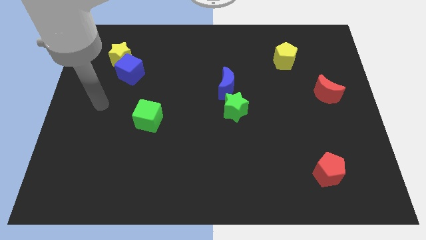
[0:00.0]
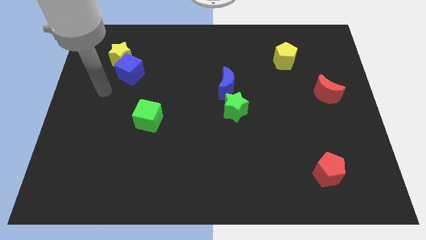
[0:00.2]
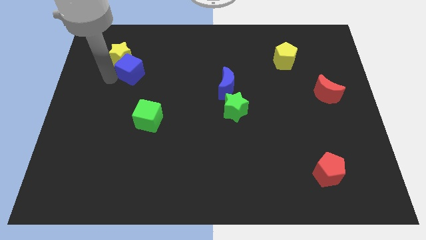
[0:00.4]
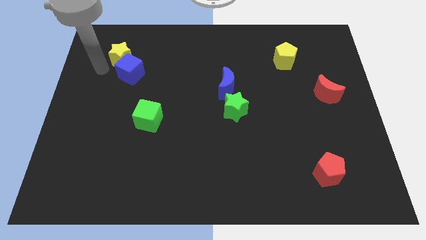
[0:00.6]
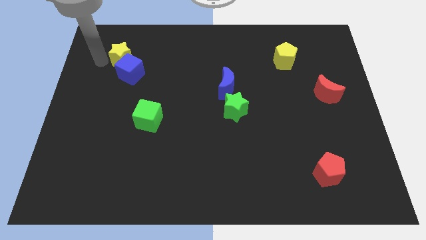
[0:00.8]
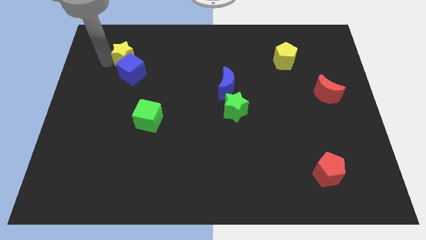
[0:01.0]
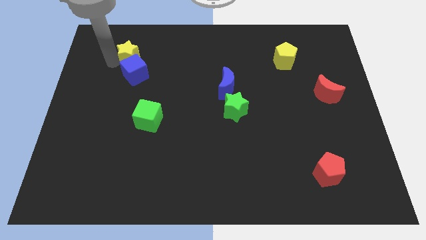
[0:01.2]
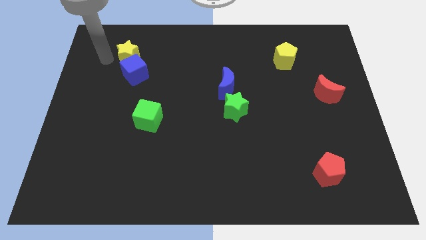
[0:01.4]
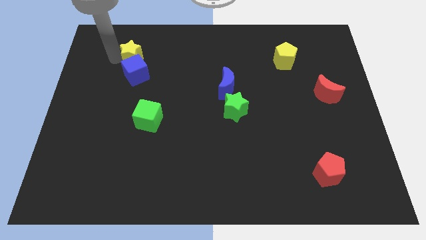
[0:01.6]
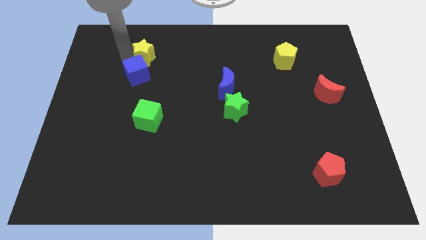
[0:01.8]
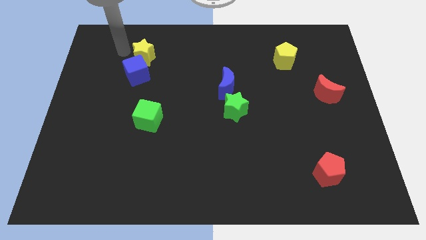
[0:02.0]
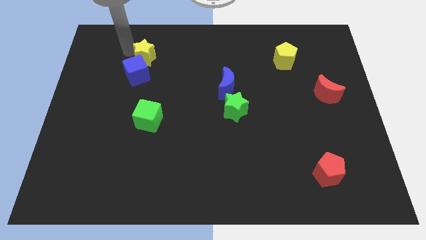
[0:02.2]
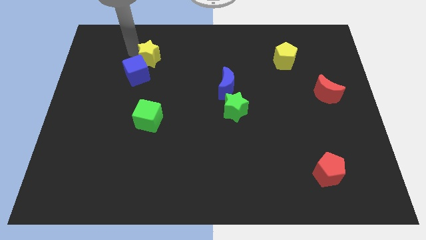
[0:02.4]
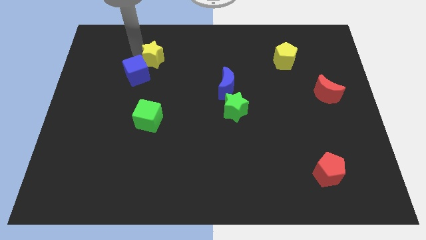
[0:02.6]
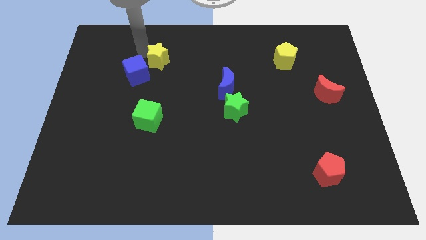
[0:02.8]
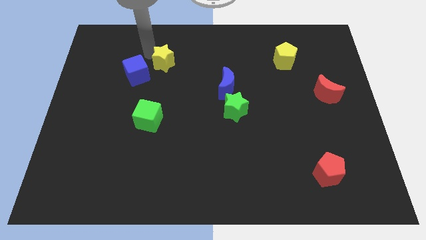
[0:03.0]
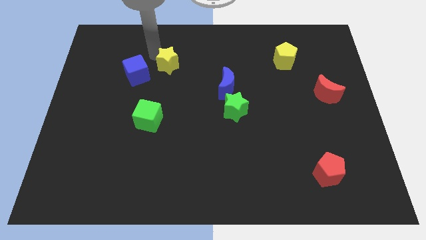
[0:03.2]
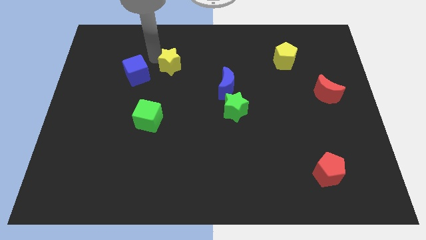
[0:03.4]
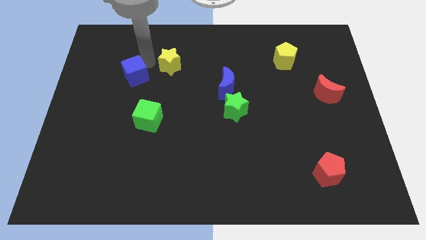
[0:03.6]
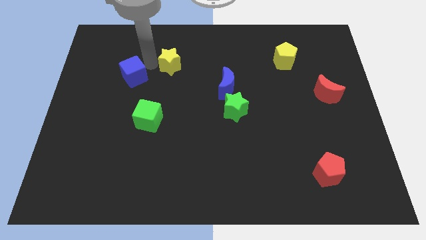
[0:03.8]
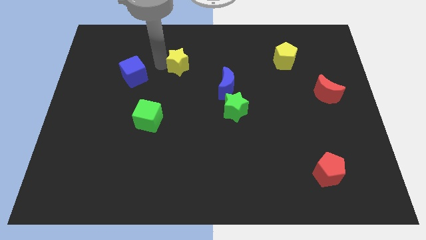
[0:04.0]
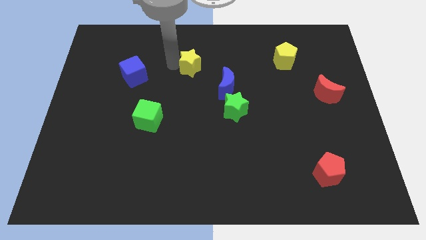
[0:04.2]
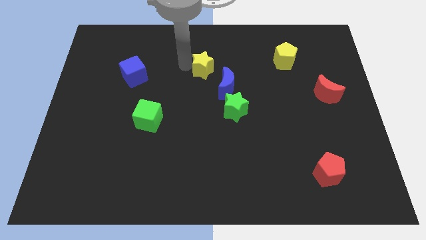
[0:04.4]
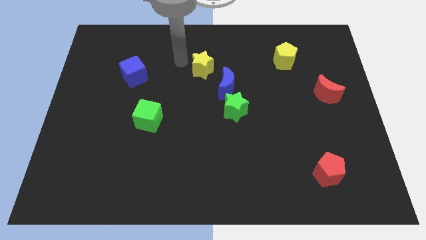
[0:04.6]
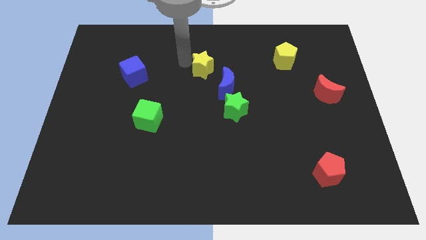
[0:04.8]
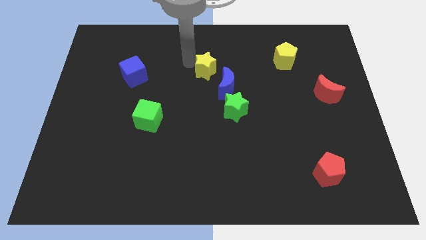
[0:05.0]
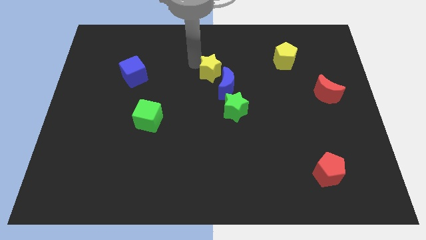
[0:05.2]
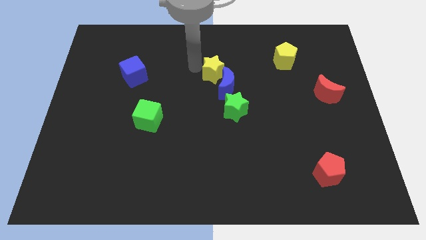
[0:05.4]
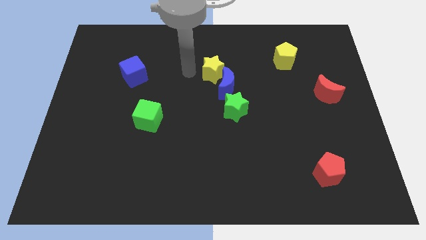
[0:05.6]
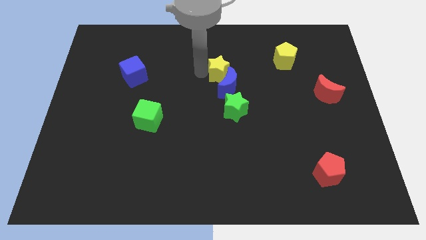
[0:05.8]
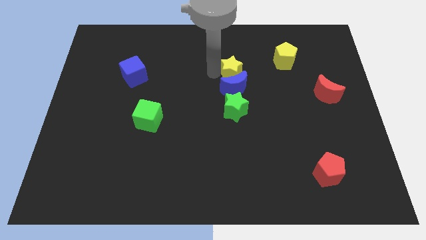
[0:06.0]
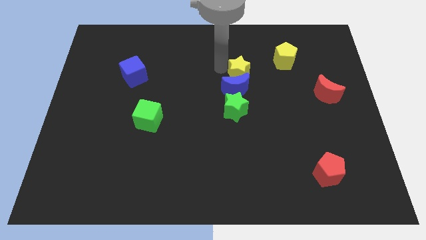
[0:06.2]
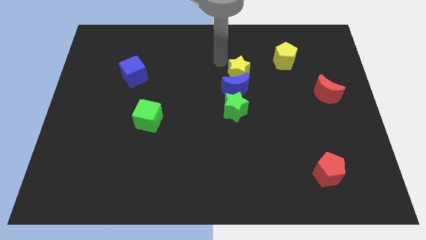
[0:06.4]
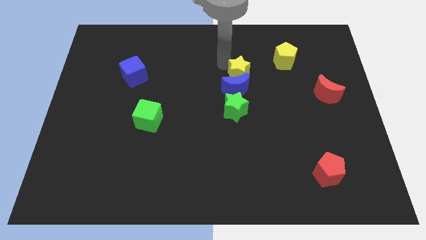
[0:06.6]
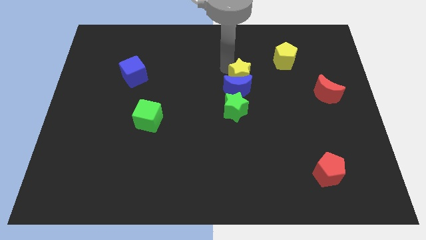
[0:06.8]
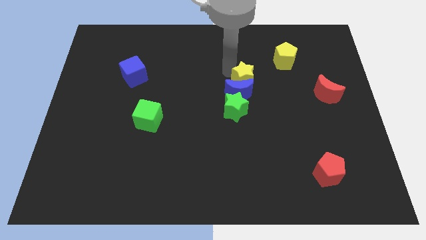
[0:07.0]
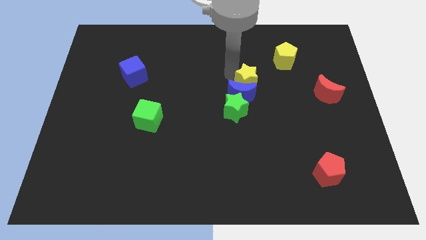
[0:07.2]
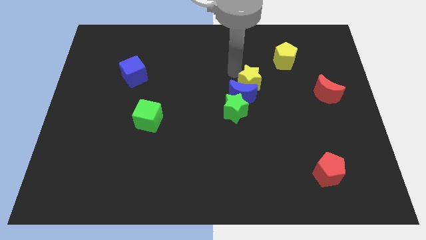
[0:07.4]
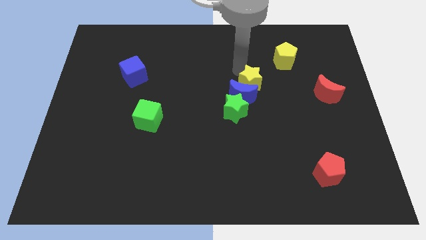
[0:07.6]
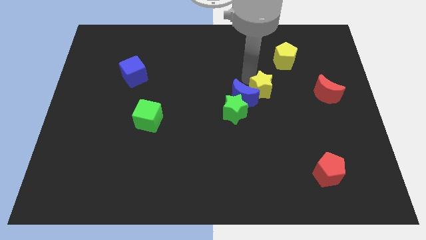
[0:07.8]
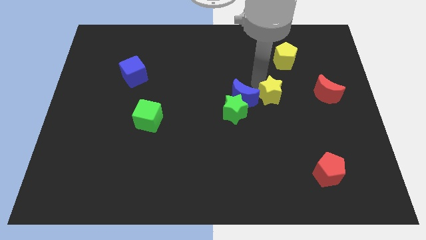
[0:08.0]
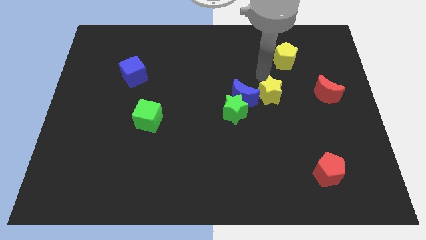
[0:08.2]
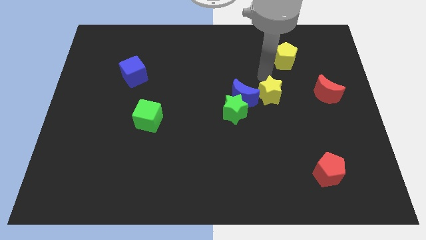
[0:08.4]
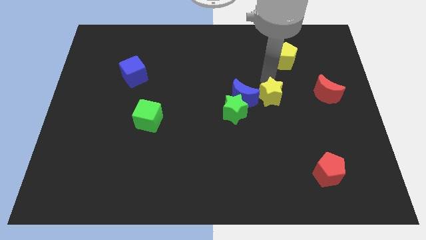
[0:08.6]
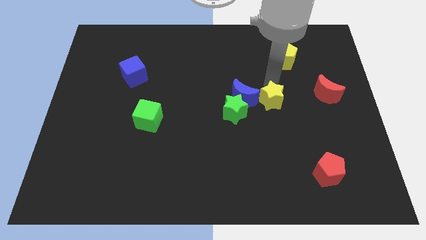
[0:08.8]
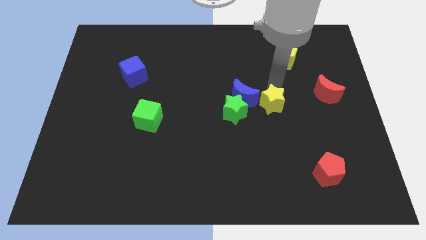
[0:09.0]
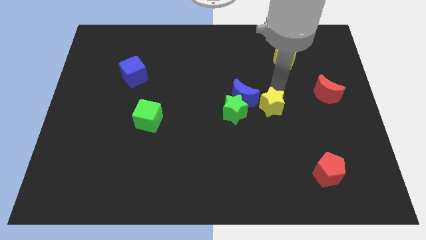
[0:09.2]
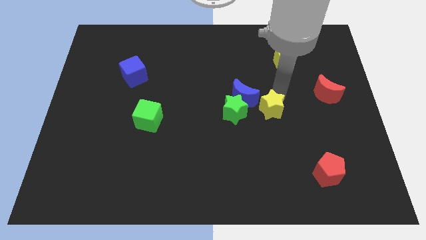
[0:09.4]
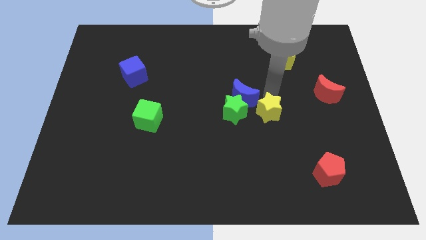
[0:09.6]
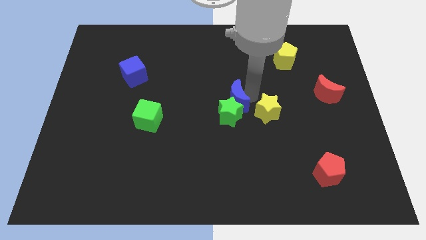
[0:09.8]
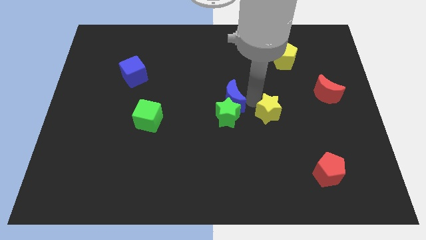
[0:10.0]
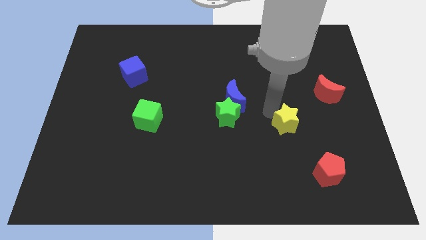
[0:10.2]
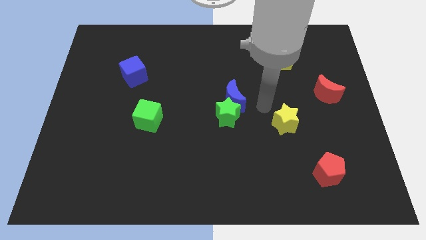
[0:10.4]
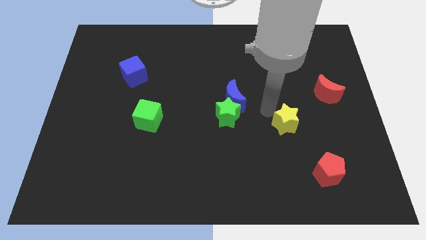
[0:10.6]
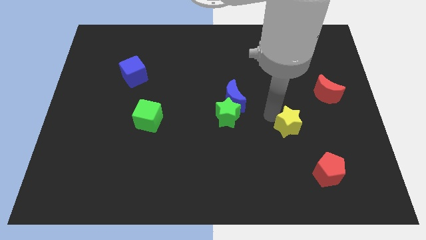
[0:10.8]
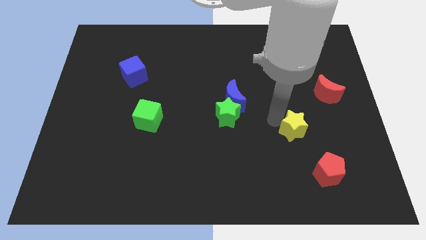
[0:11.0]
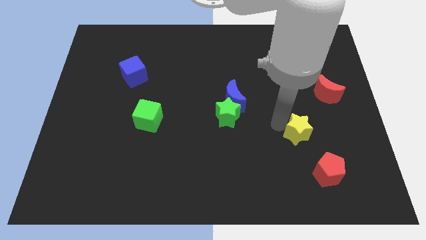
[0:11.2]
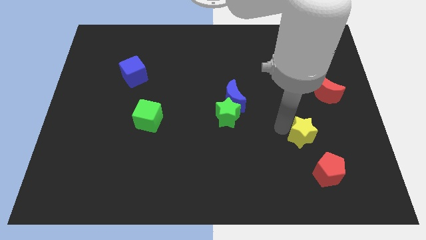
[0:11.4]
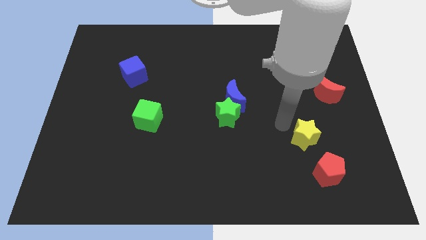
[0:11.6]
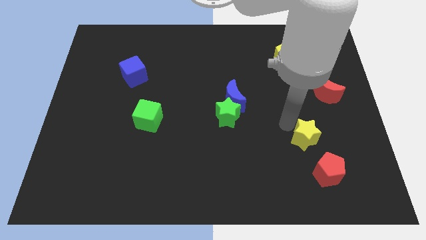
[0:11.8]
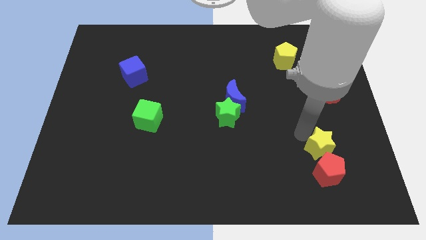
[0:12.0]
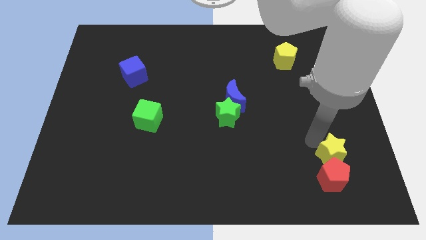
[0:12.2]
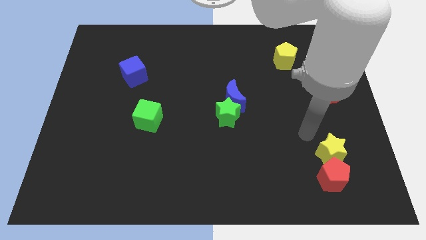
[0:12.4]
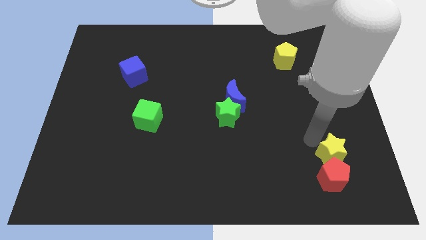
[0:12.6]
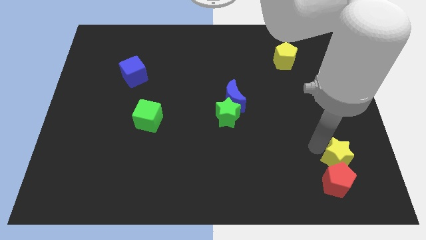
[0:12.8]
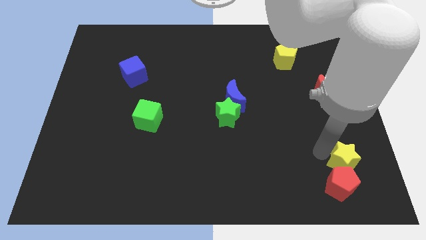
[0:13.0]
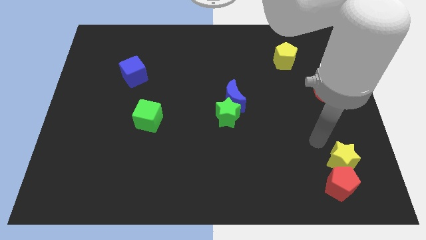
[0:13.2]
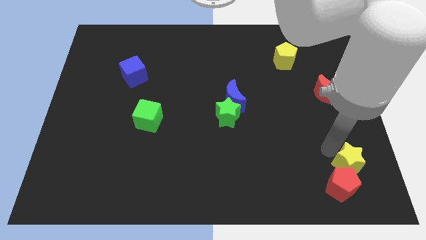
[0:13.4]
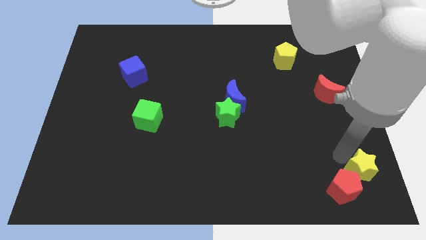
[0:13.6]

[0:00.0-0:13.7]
push the yellow star to the lower right corner
